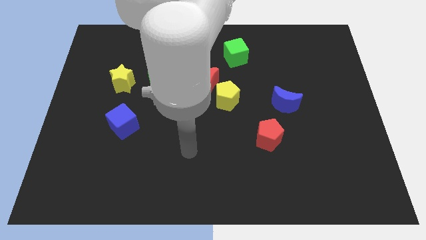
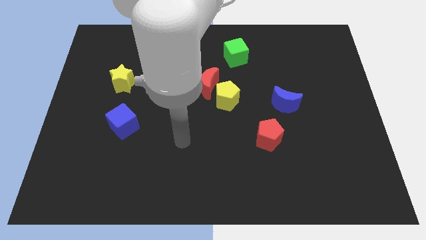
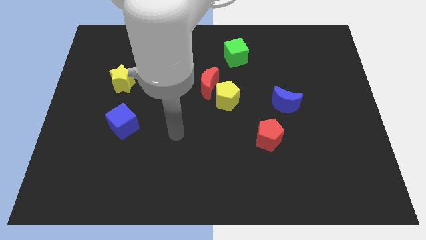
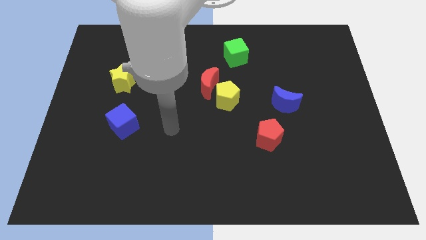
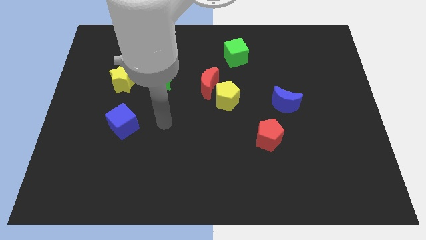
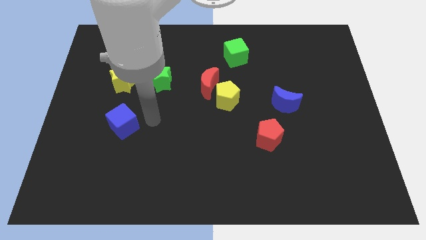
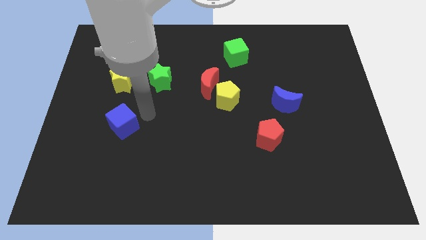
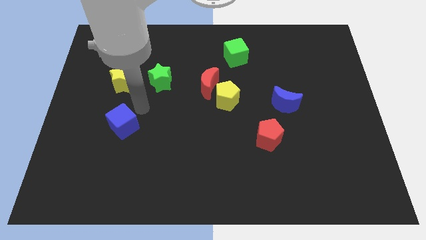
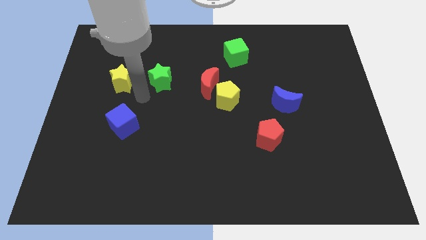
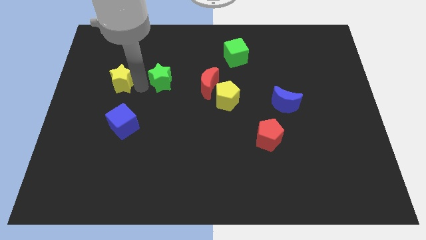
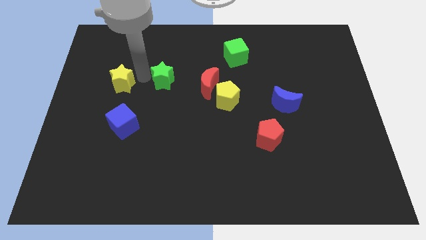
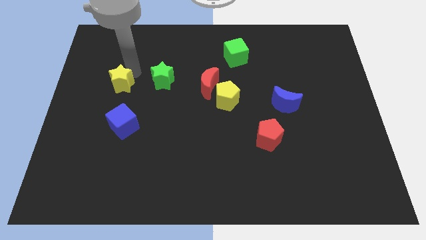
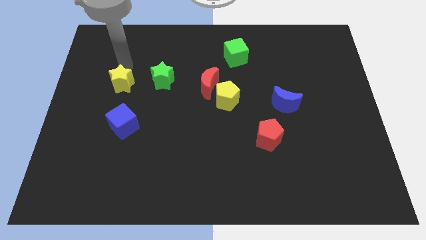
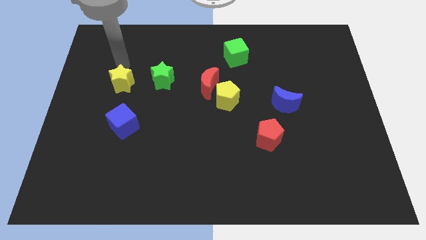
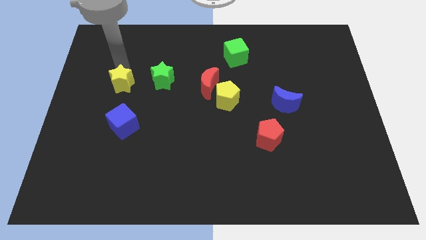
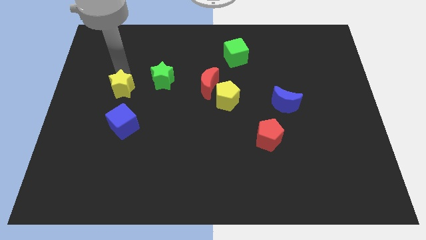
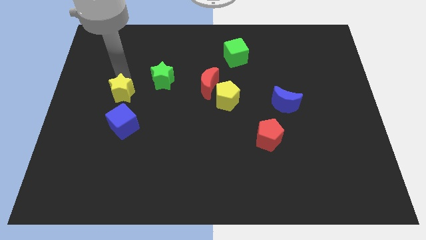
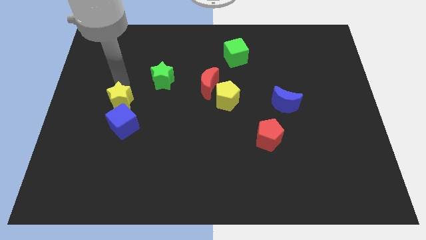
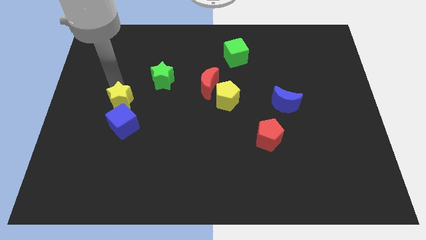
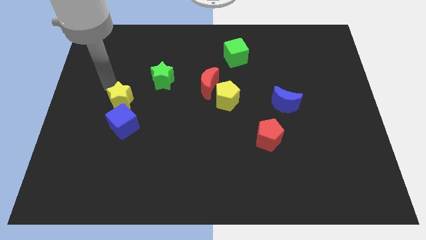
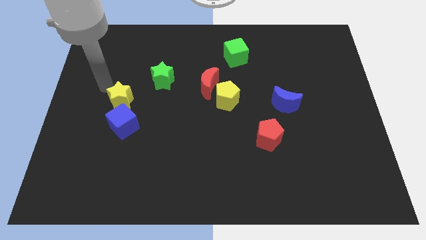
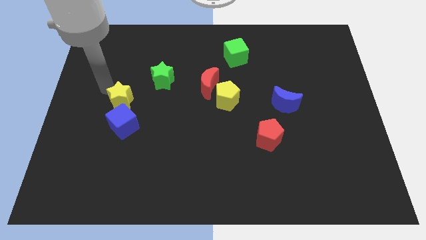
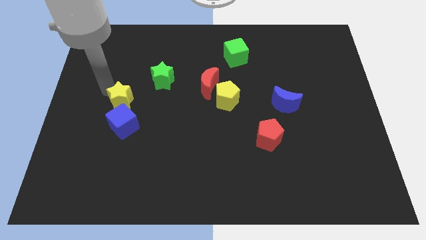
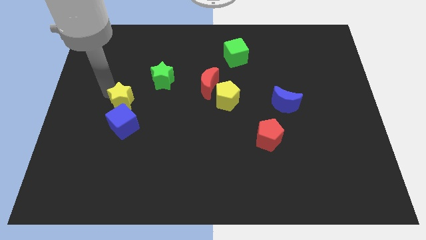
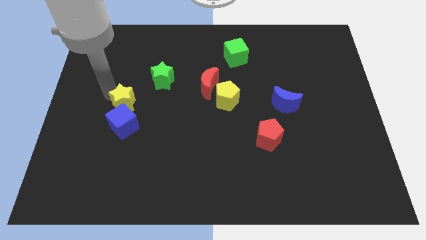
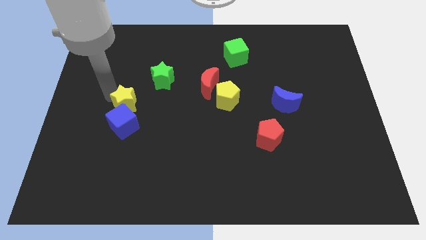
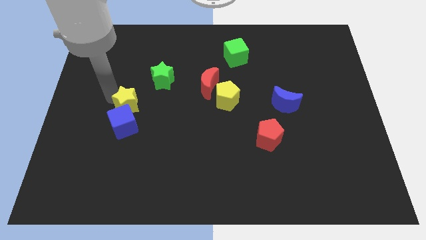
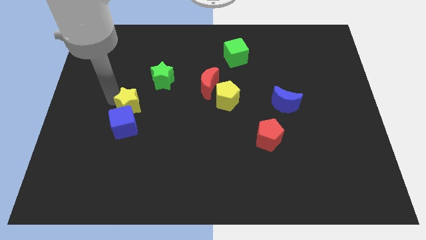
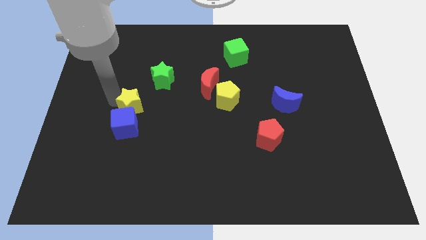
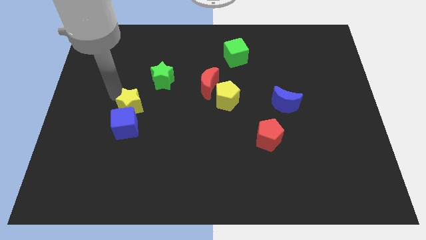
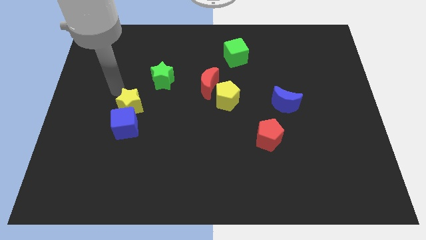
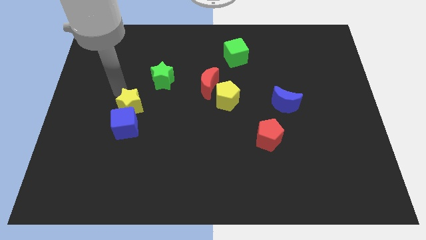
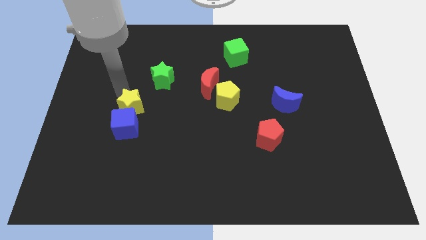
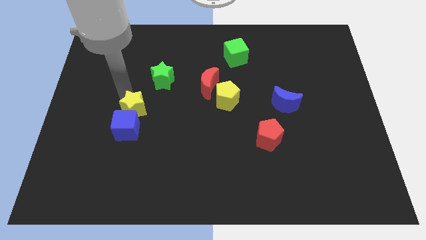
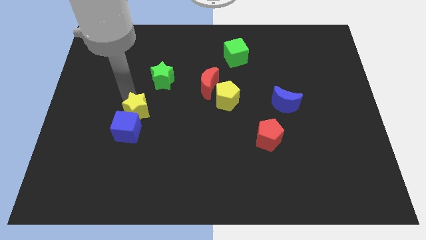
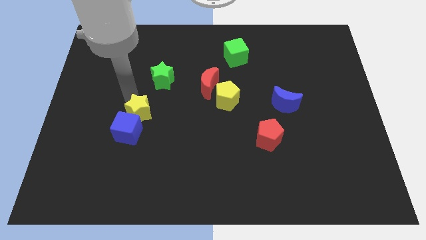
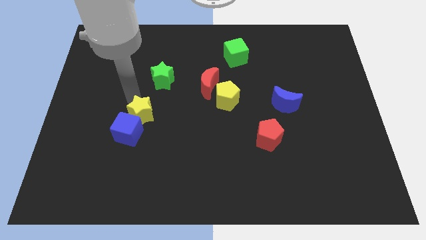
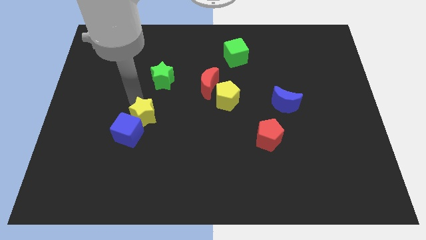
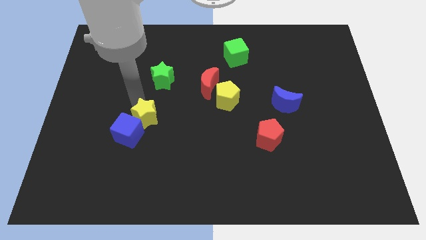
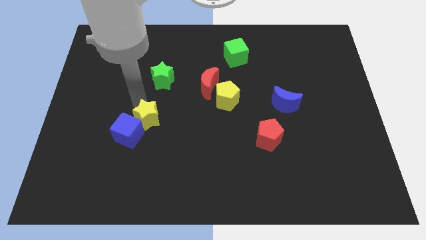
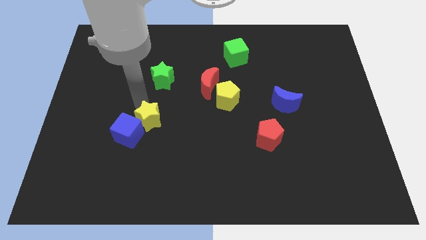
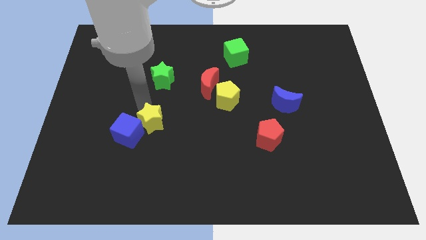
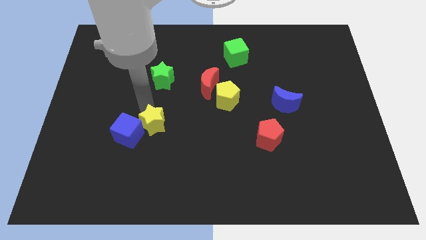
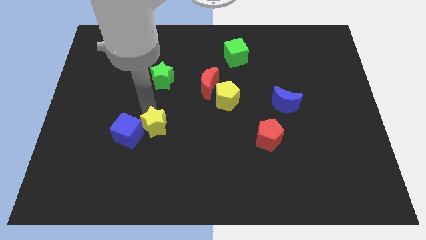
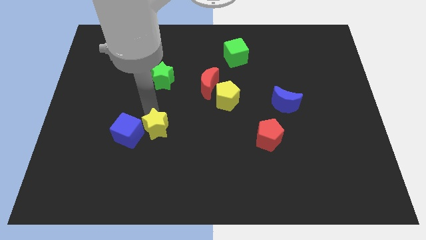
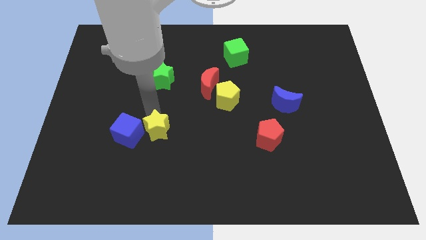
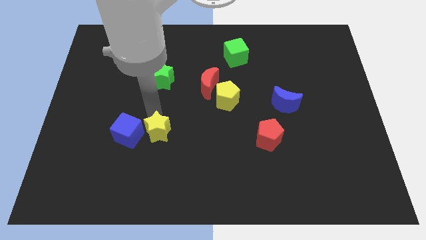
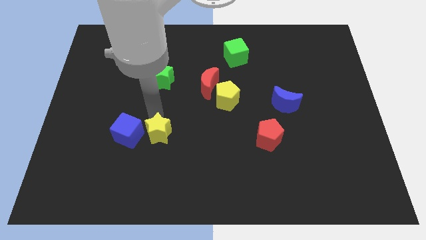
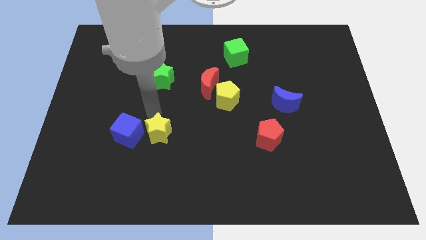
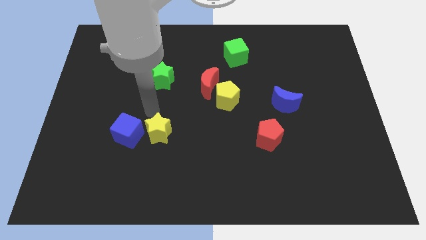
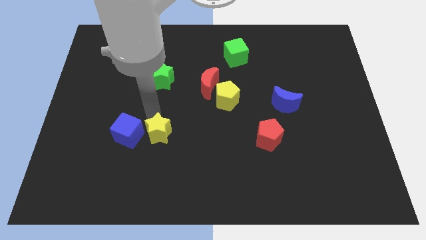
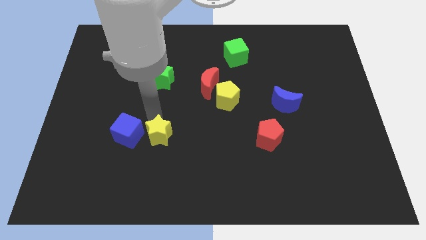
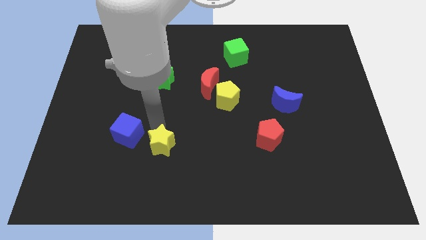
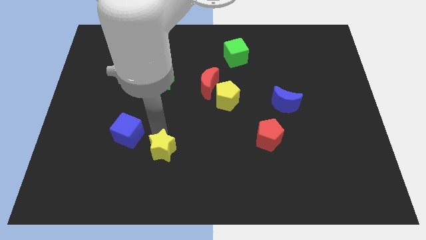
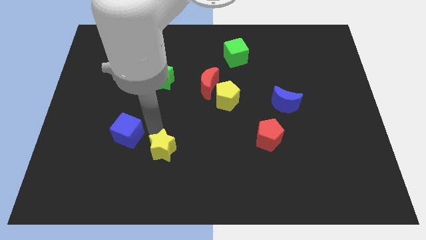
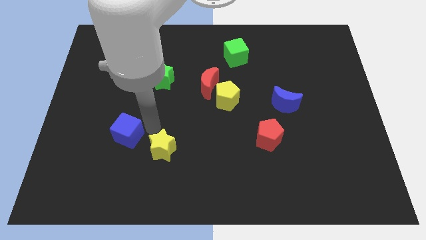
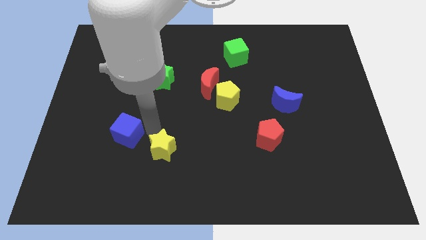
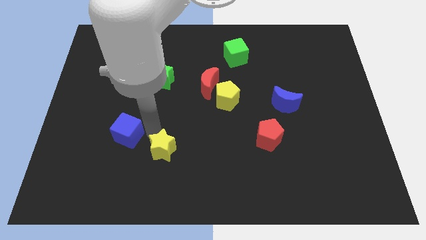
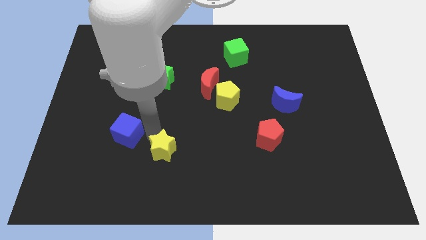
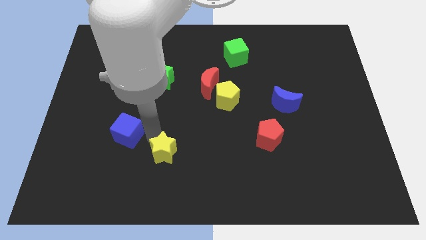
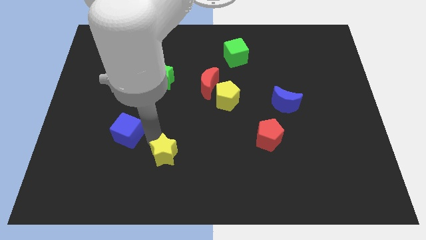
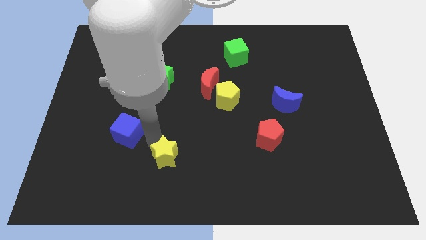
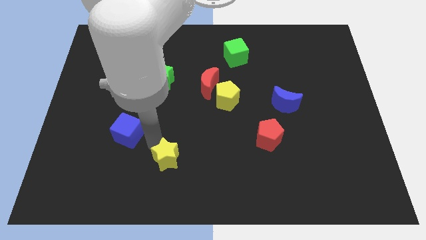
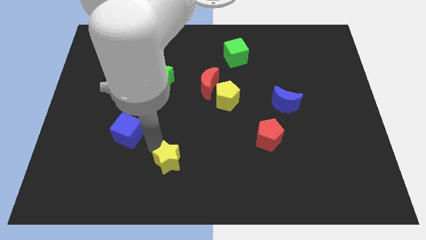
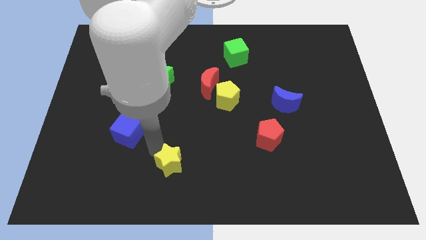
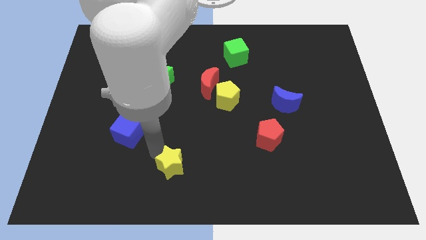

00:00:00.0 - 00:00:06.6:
slide the yellow star to the bottom side

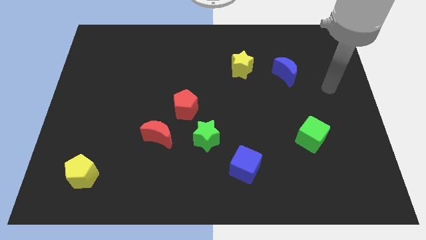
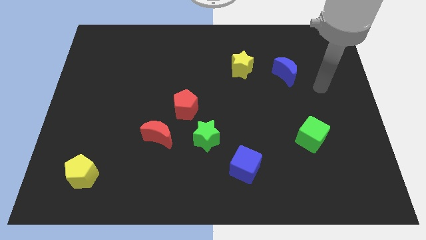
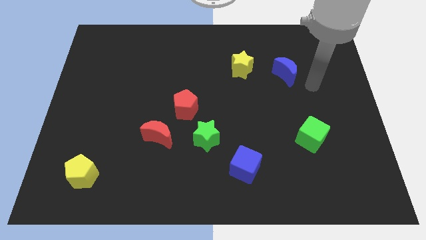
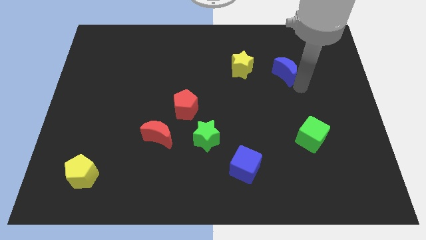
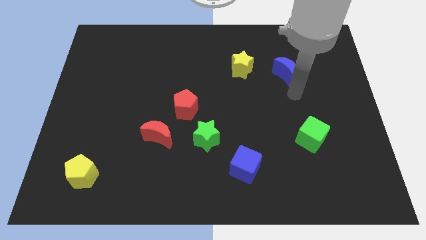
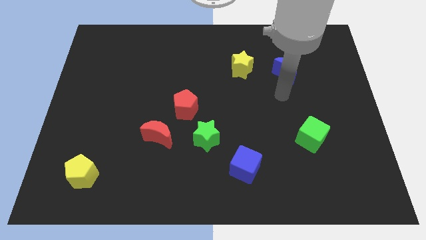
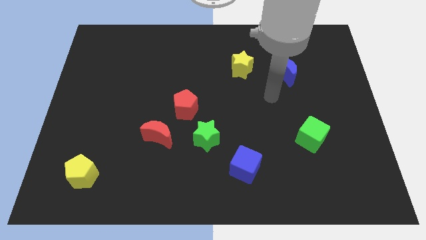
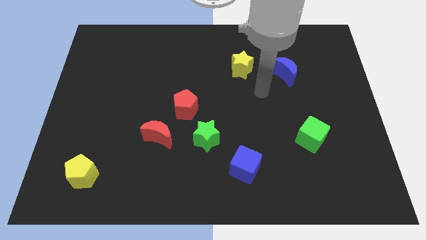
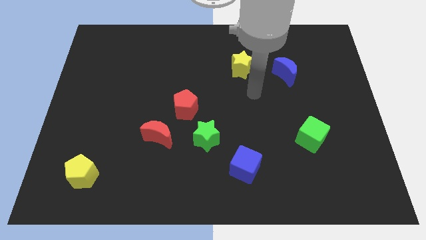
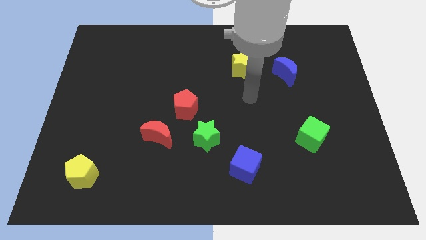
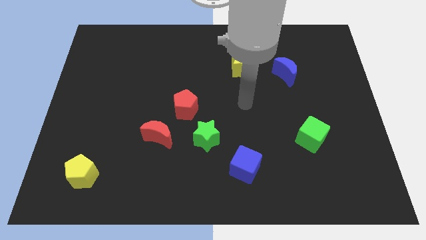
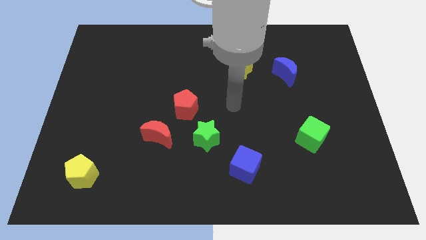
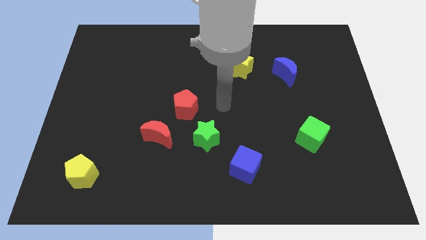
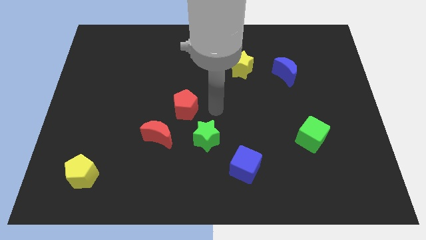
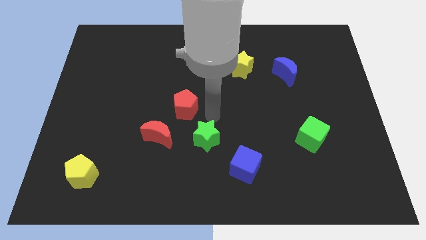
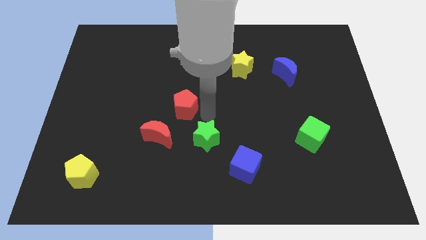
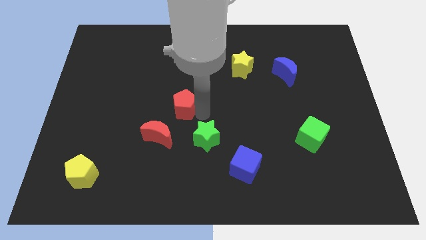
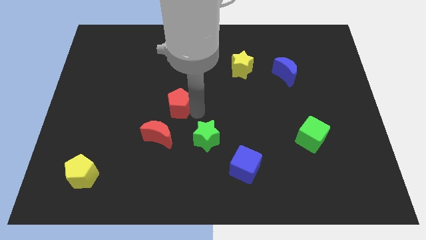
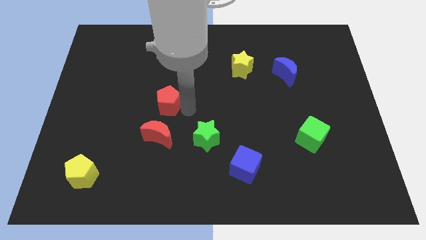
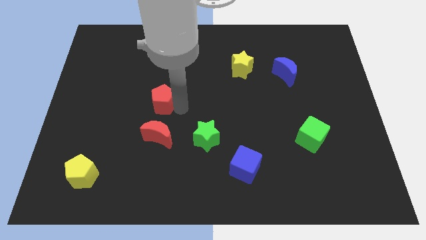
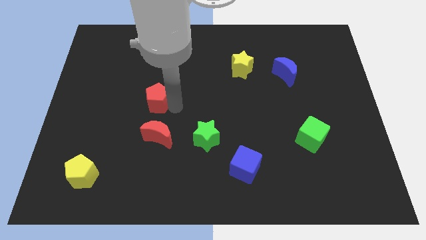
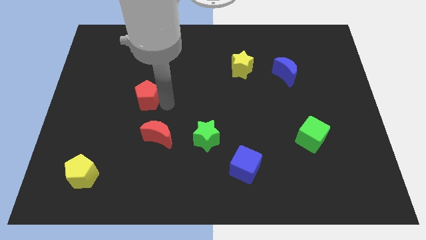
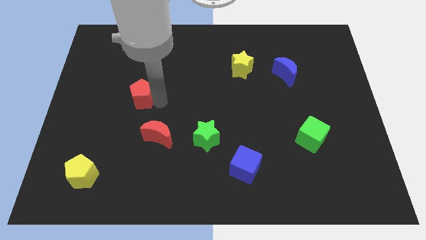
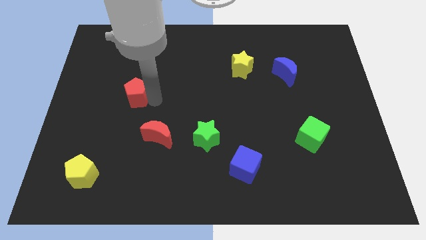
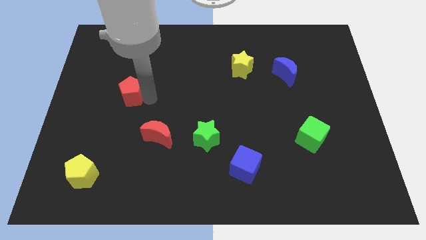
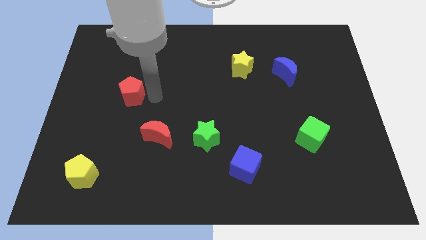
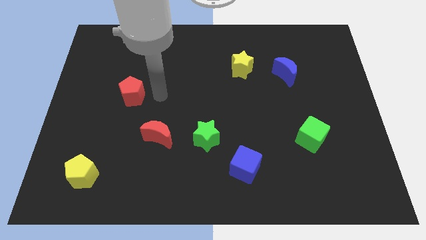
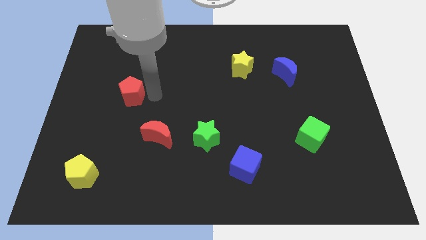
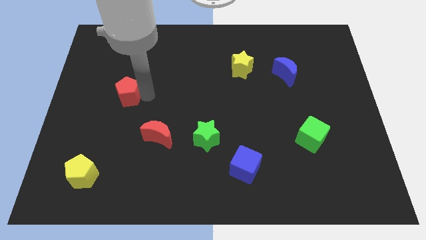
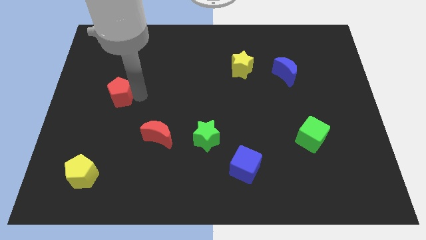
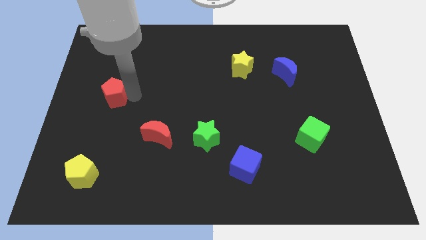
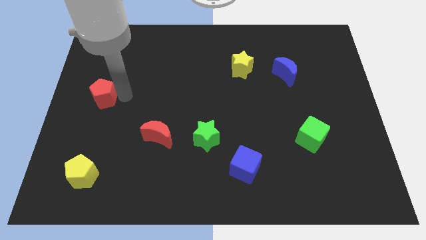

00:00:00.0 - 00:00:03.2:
move the red pentagon to the left side
